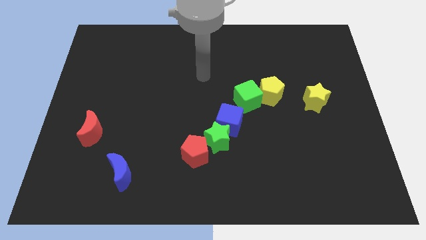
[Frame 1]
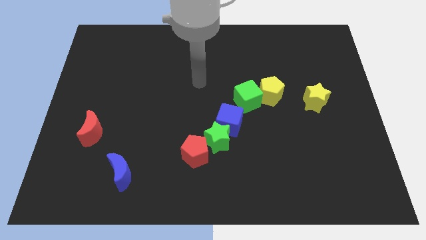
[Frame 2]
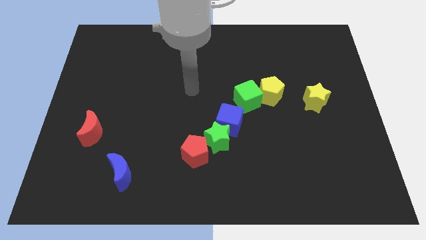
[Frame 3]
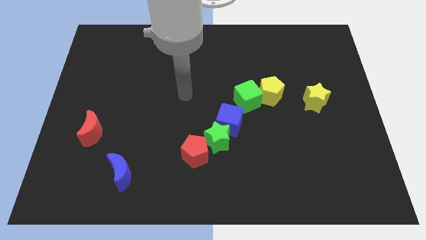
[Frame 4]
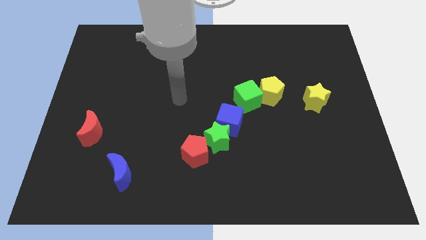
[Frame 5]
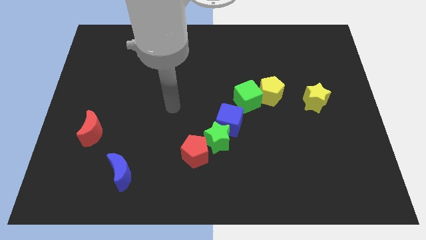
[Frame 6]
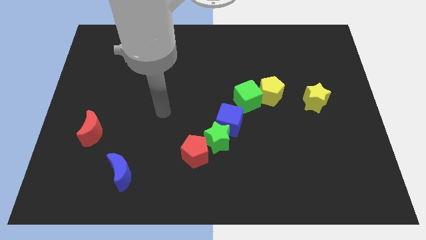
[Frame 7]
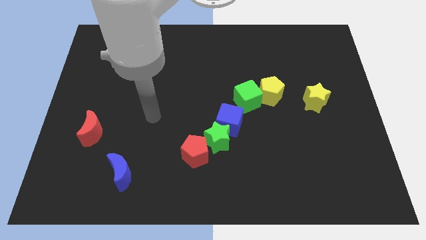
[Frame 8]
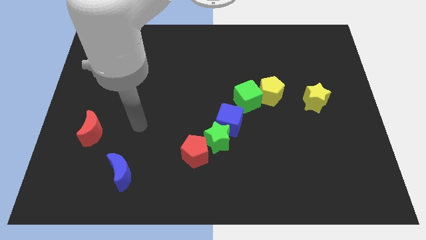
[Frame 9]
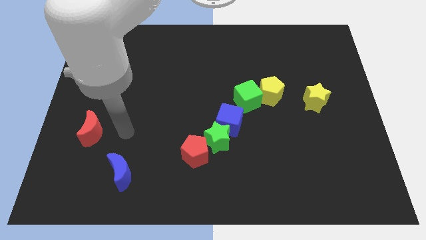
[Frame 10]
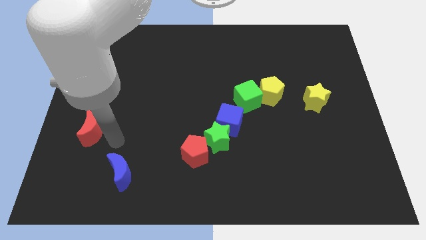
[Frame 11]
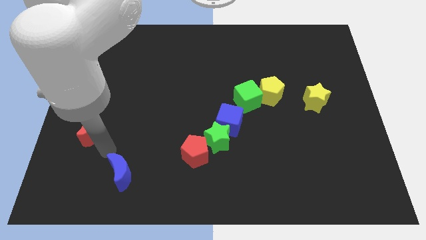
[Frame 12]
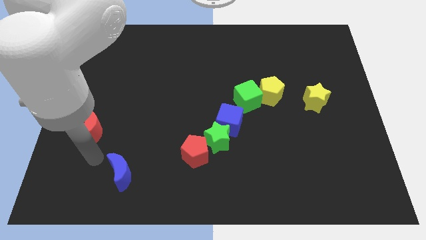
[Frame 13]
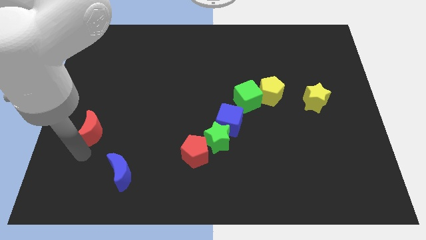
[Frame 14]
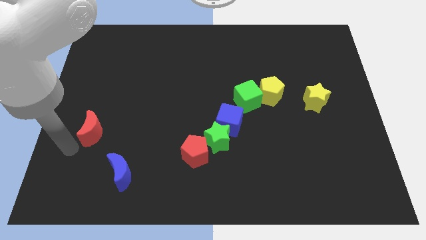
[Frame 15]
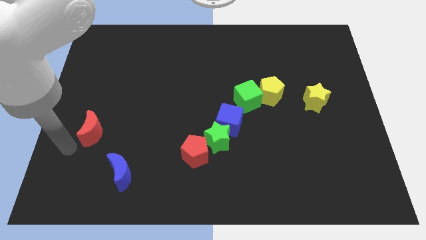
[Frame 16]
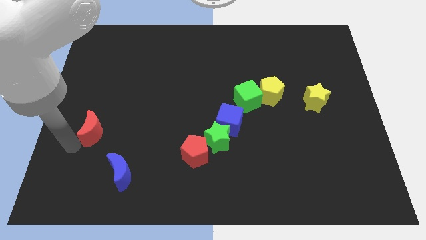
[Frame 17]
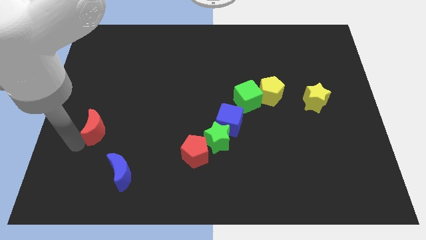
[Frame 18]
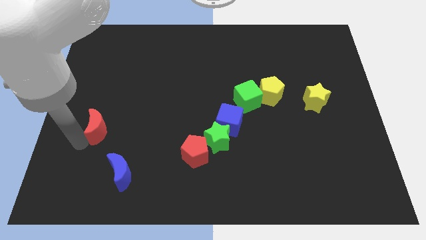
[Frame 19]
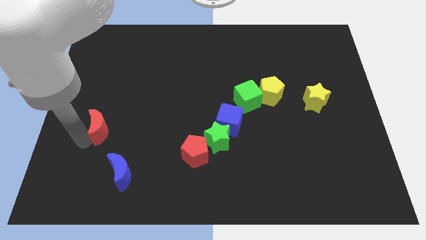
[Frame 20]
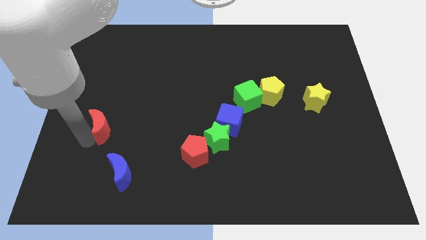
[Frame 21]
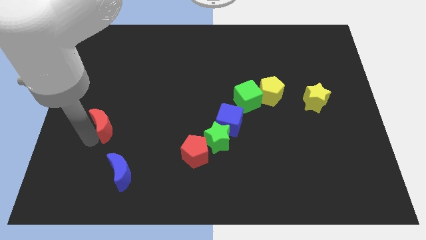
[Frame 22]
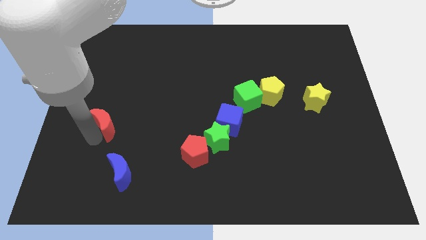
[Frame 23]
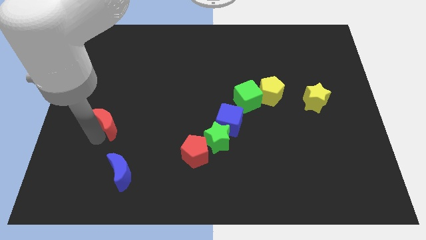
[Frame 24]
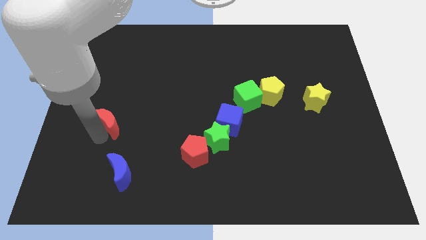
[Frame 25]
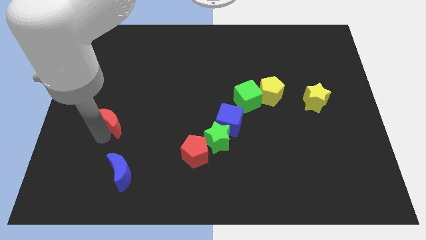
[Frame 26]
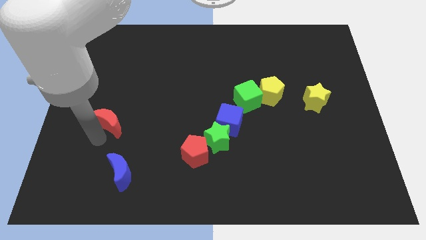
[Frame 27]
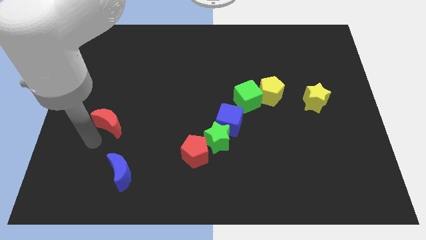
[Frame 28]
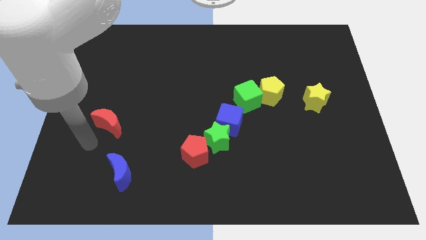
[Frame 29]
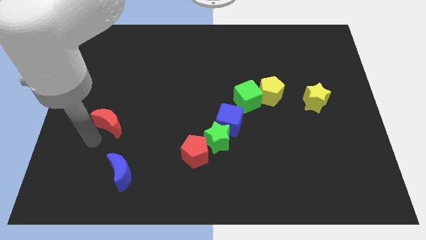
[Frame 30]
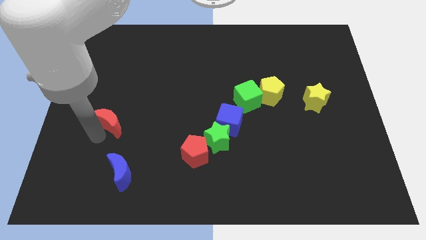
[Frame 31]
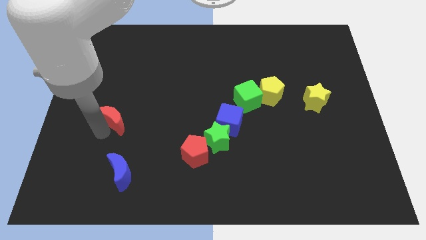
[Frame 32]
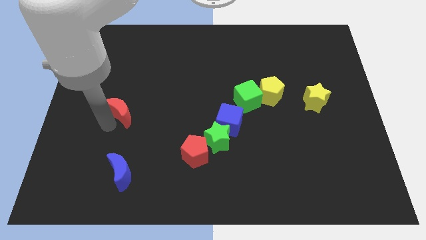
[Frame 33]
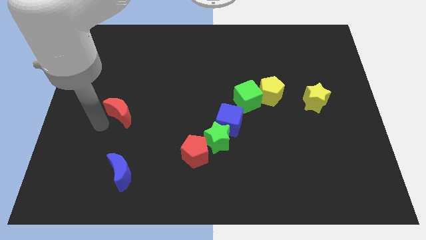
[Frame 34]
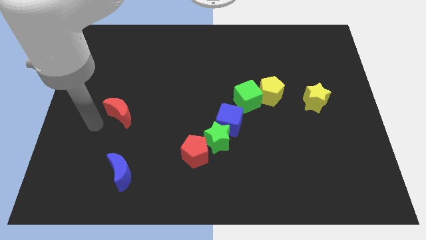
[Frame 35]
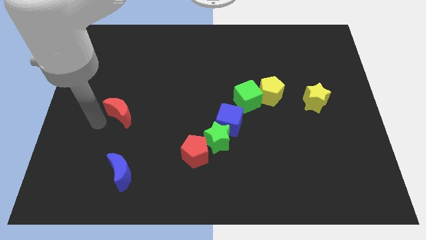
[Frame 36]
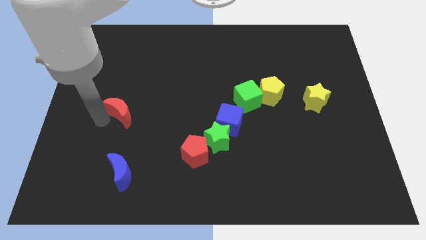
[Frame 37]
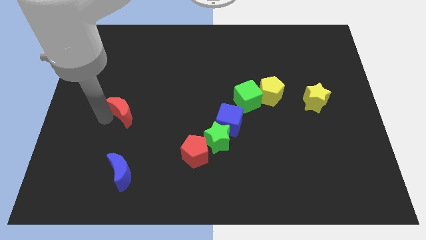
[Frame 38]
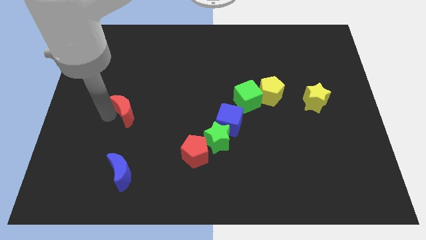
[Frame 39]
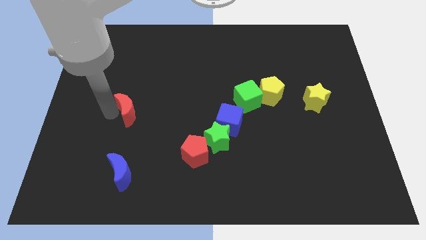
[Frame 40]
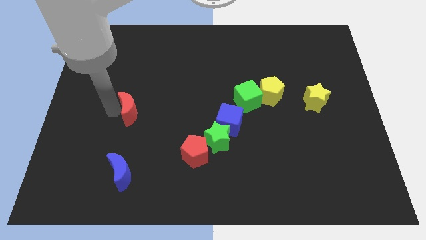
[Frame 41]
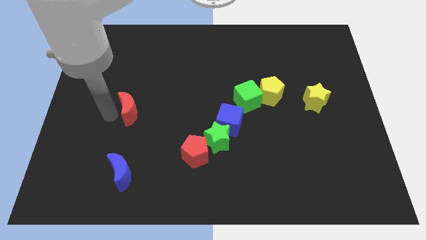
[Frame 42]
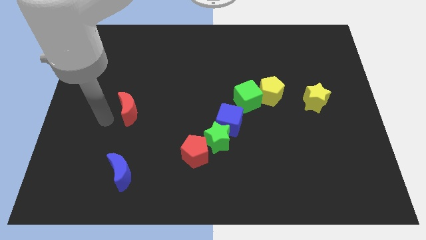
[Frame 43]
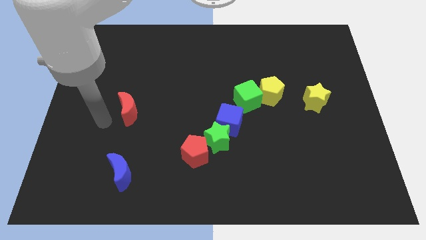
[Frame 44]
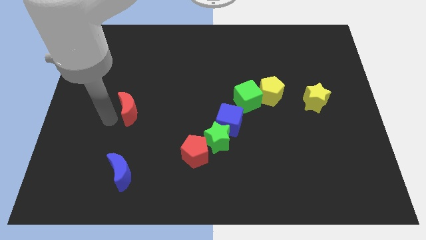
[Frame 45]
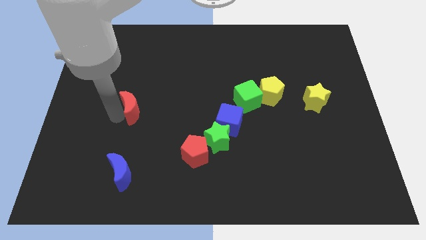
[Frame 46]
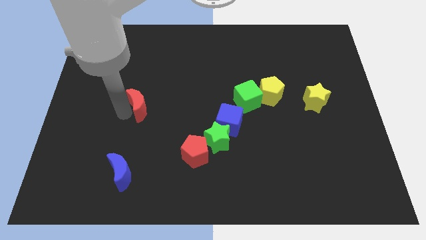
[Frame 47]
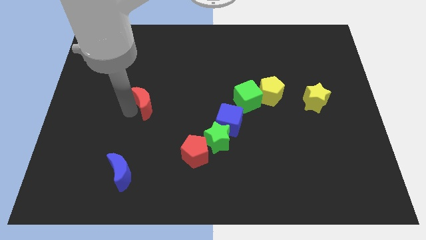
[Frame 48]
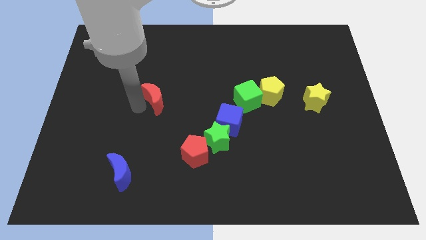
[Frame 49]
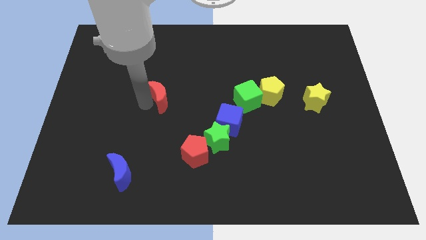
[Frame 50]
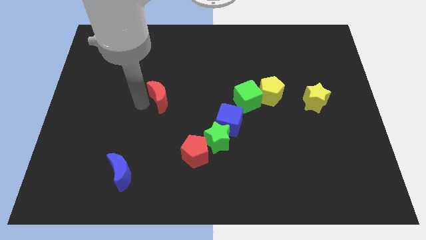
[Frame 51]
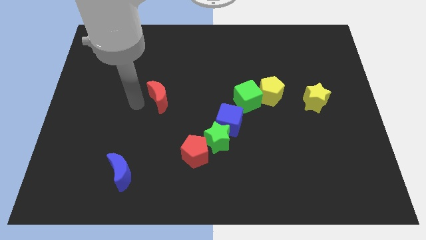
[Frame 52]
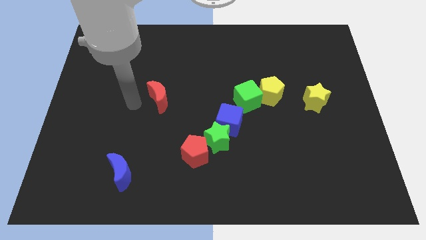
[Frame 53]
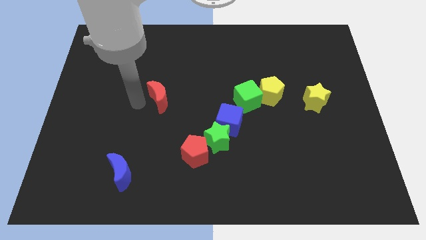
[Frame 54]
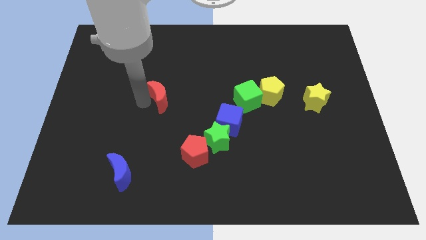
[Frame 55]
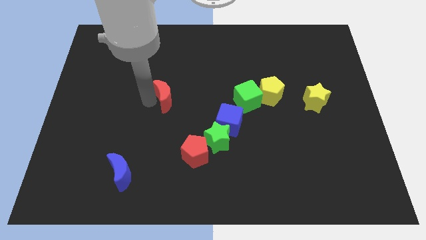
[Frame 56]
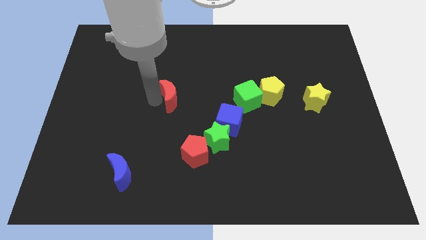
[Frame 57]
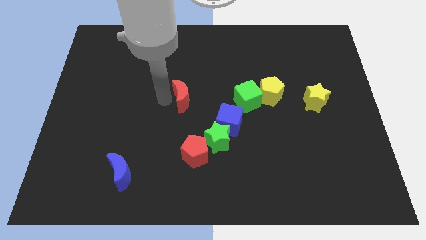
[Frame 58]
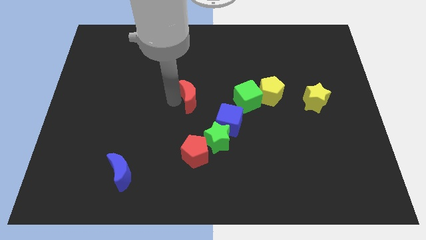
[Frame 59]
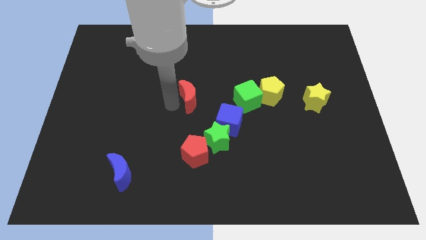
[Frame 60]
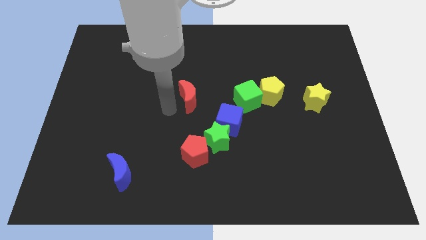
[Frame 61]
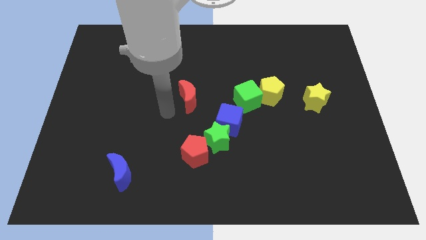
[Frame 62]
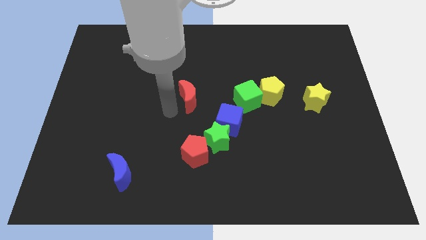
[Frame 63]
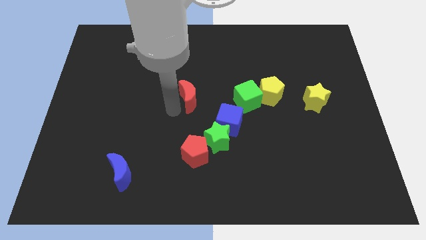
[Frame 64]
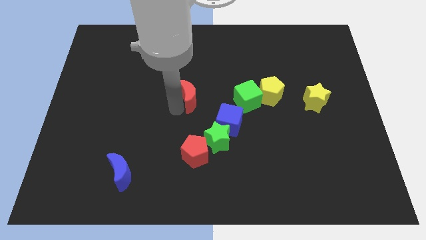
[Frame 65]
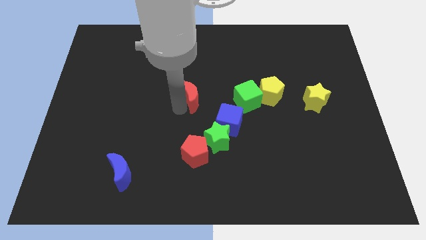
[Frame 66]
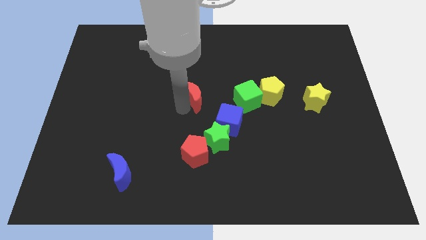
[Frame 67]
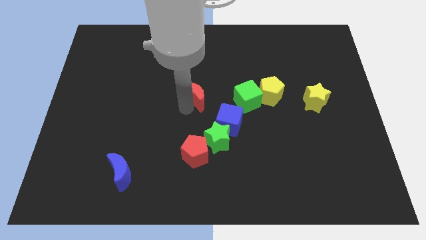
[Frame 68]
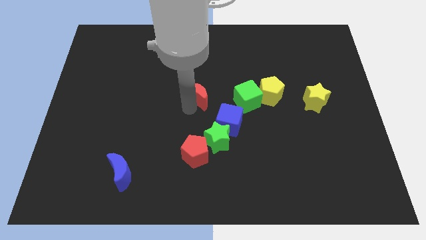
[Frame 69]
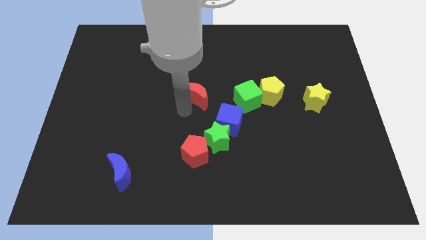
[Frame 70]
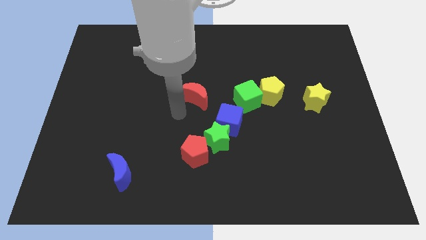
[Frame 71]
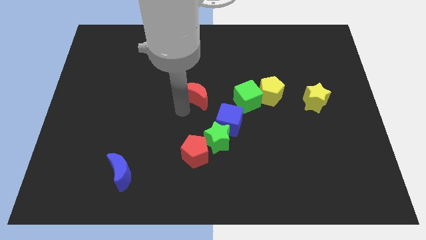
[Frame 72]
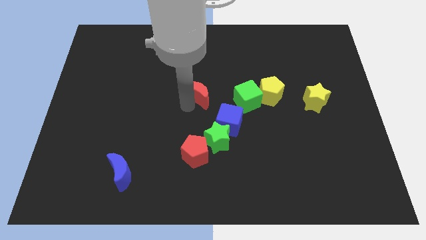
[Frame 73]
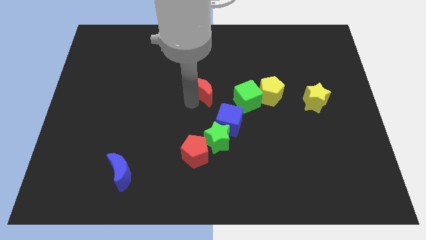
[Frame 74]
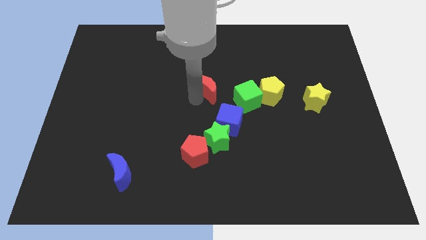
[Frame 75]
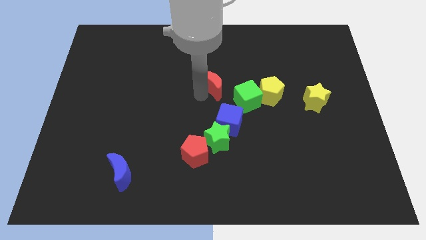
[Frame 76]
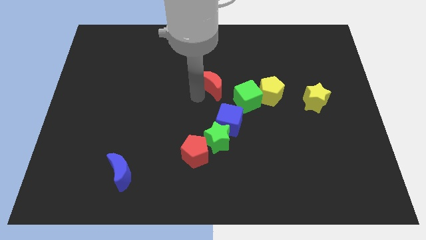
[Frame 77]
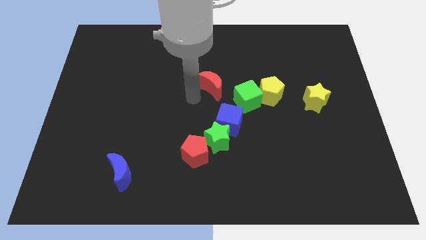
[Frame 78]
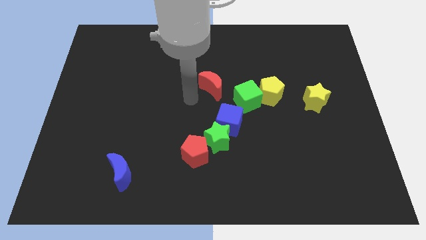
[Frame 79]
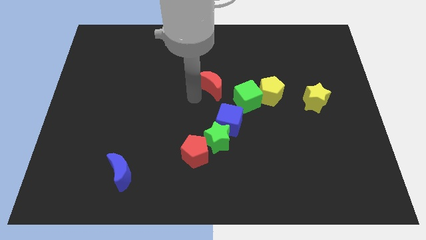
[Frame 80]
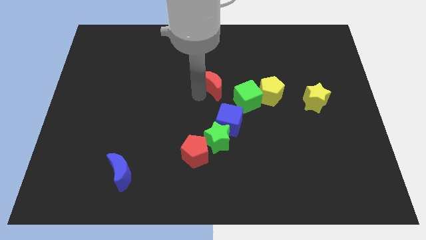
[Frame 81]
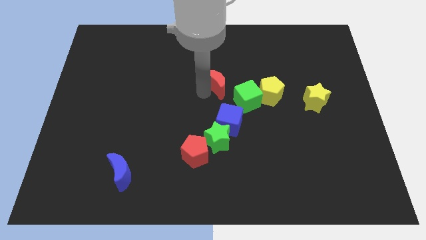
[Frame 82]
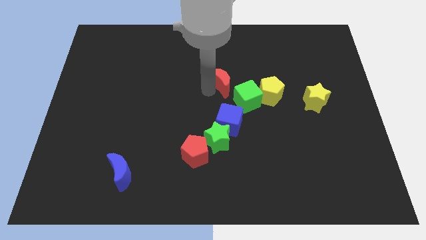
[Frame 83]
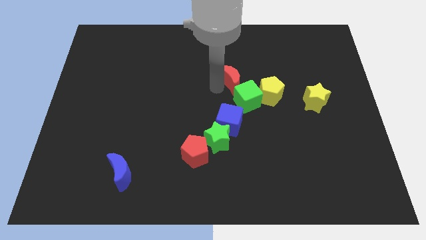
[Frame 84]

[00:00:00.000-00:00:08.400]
move the red moon to the top of the green cube
